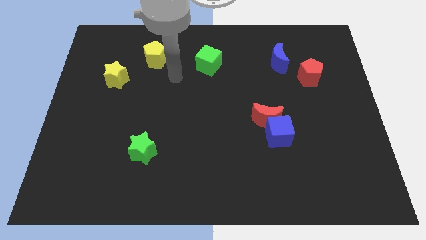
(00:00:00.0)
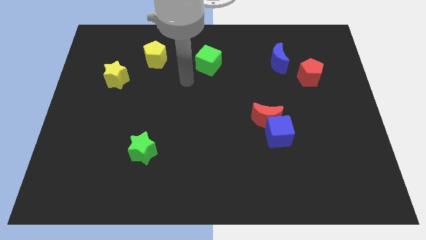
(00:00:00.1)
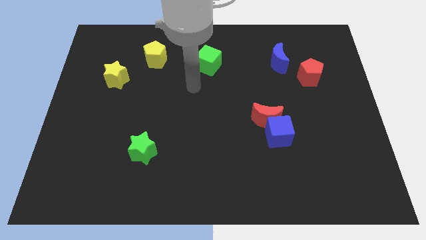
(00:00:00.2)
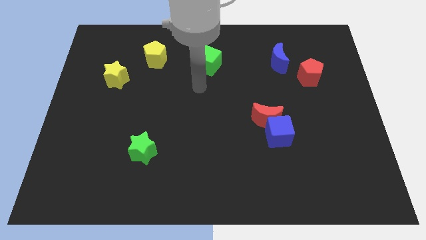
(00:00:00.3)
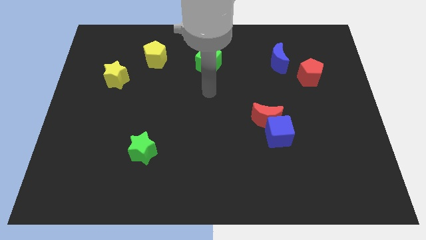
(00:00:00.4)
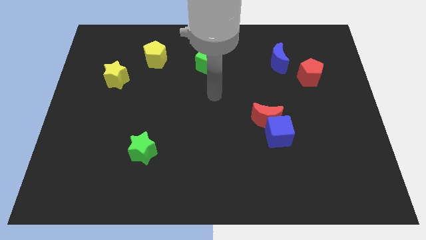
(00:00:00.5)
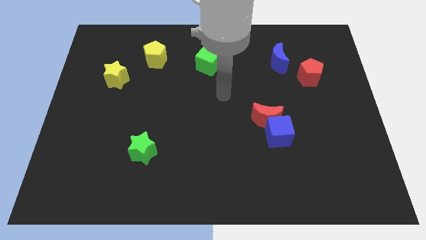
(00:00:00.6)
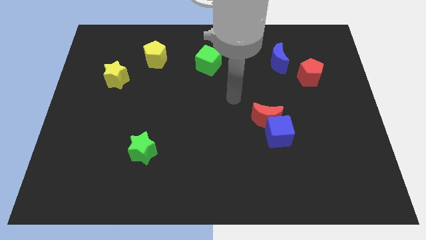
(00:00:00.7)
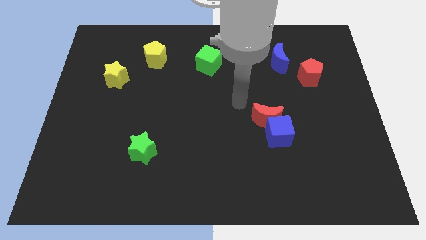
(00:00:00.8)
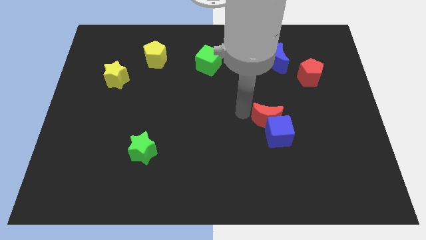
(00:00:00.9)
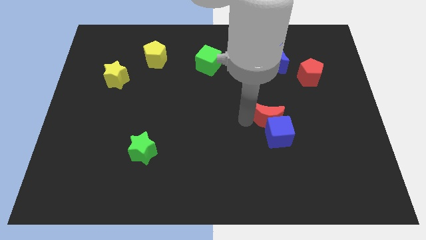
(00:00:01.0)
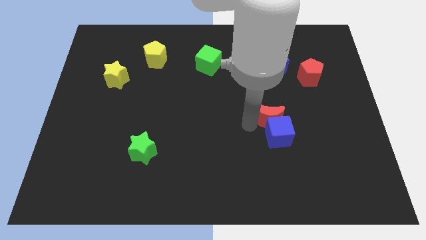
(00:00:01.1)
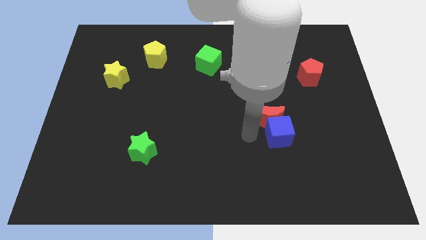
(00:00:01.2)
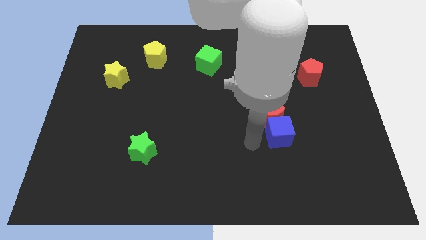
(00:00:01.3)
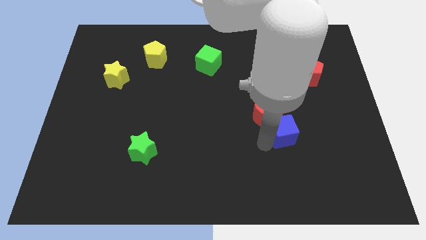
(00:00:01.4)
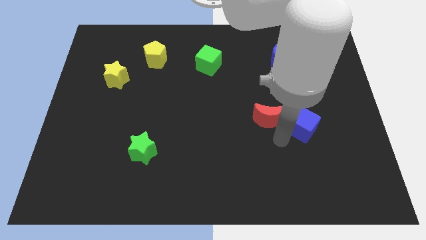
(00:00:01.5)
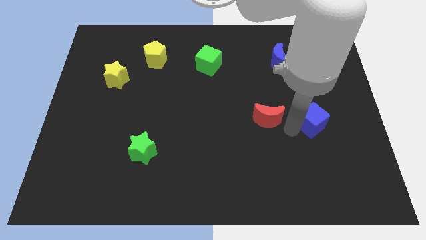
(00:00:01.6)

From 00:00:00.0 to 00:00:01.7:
pull the red moon apart from the blue cube

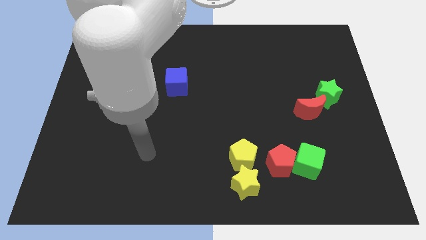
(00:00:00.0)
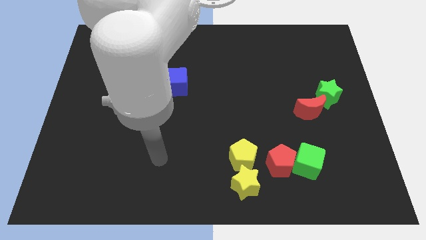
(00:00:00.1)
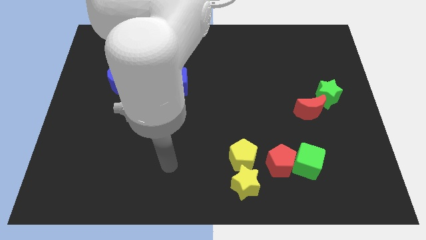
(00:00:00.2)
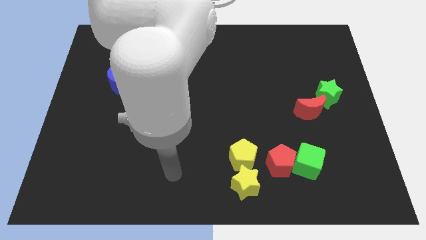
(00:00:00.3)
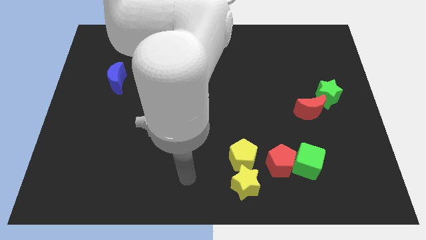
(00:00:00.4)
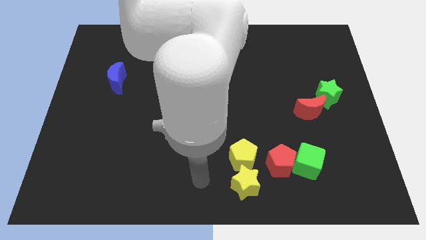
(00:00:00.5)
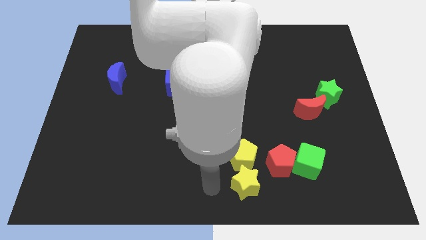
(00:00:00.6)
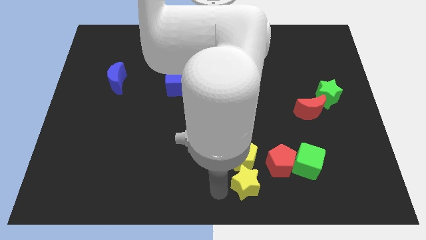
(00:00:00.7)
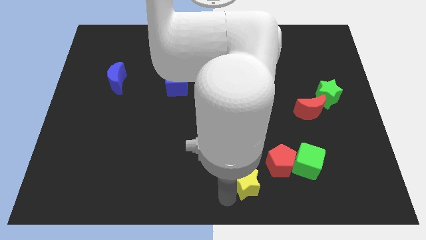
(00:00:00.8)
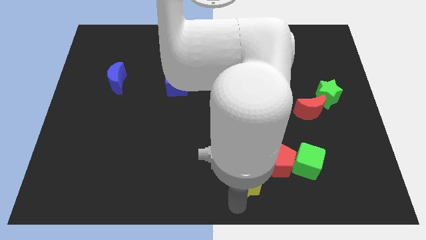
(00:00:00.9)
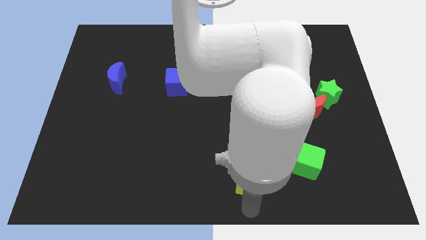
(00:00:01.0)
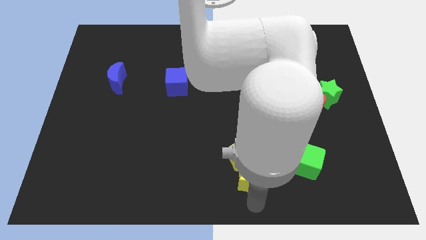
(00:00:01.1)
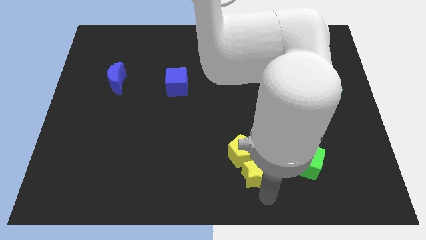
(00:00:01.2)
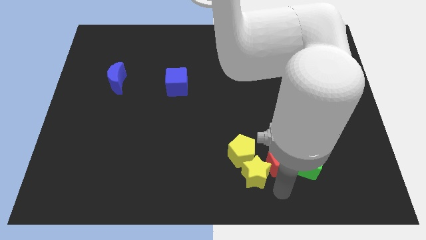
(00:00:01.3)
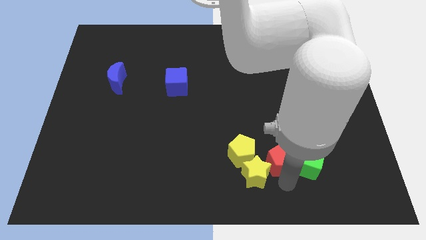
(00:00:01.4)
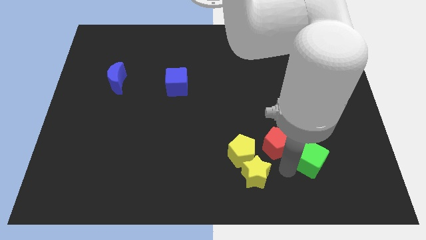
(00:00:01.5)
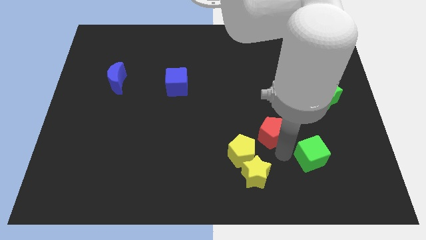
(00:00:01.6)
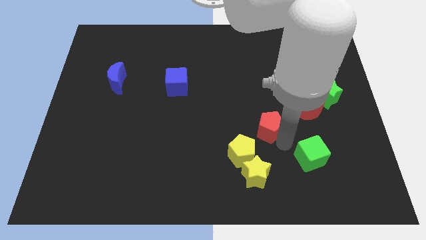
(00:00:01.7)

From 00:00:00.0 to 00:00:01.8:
move the green cube away from the red pentagon

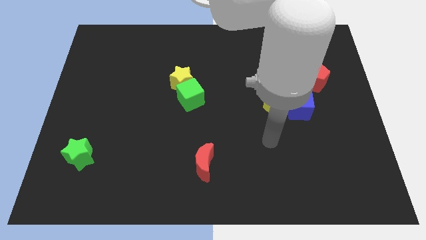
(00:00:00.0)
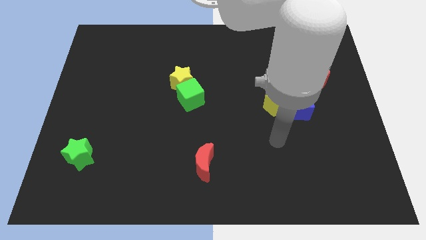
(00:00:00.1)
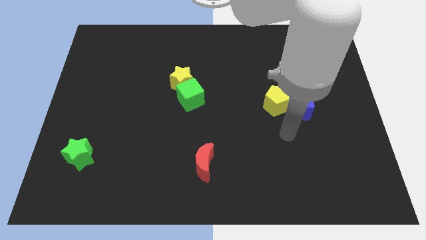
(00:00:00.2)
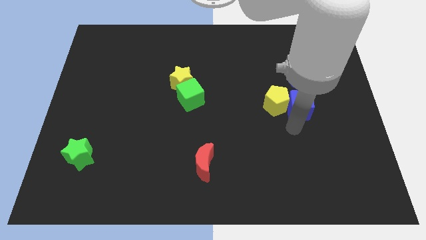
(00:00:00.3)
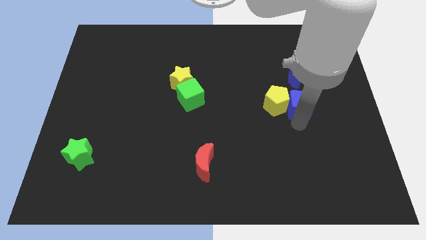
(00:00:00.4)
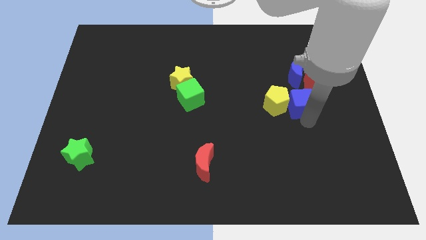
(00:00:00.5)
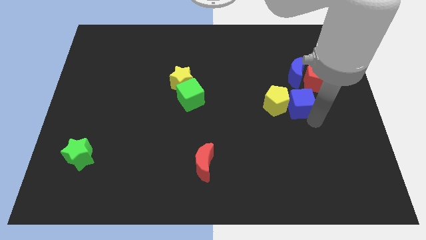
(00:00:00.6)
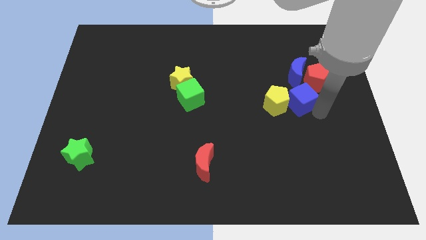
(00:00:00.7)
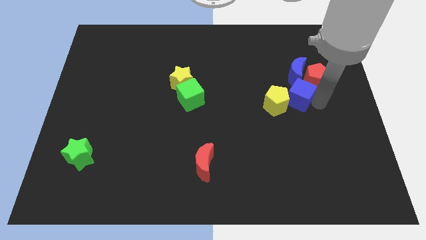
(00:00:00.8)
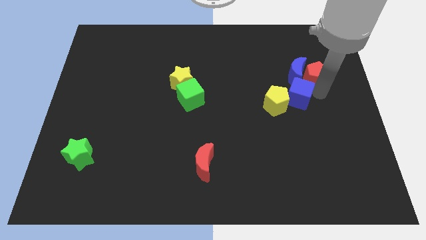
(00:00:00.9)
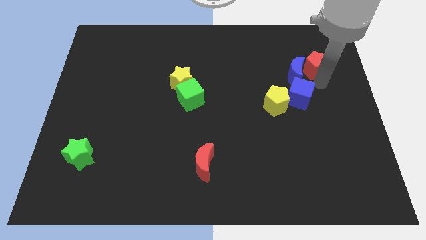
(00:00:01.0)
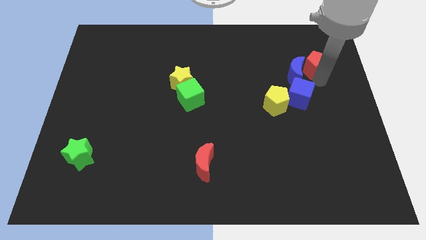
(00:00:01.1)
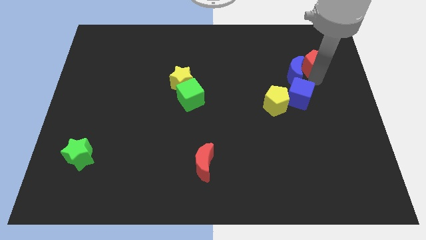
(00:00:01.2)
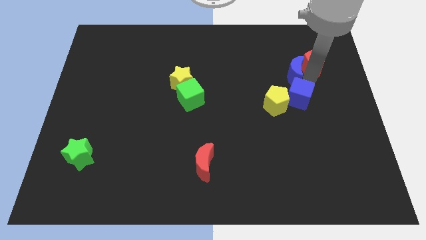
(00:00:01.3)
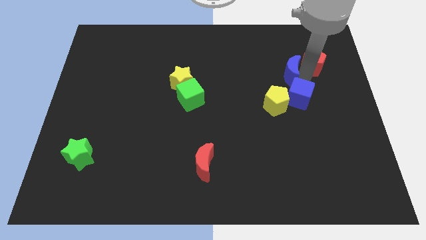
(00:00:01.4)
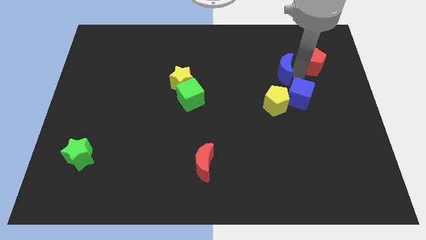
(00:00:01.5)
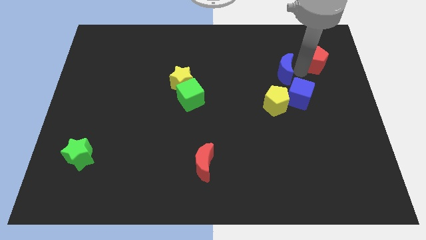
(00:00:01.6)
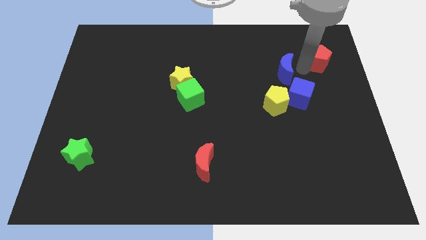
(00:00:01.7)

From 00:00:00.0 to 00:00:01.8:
pull the blue moon apart from the red pentagon

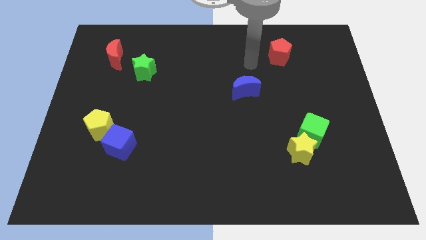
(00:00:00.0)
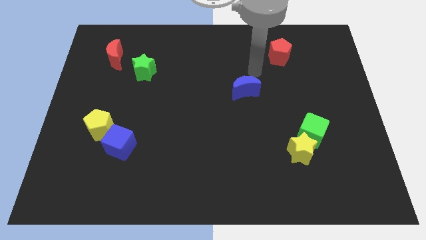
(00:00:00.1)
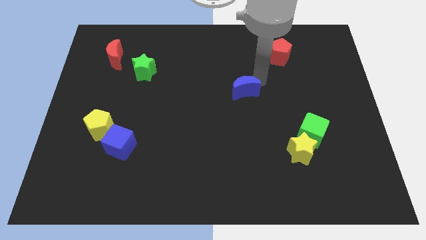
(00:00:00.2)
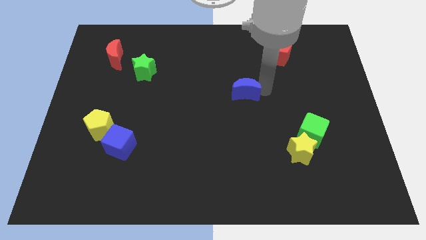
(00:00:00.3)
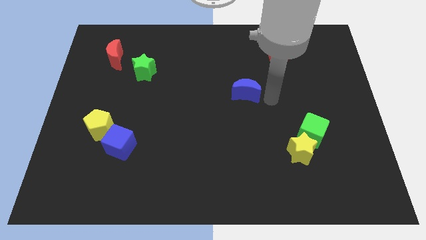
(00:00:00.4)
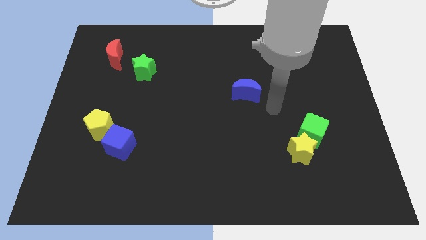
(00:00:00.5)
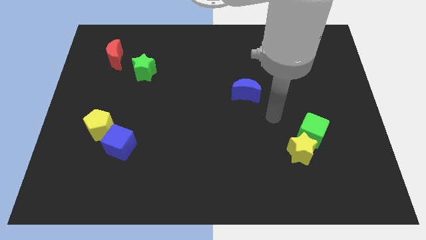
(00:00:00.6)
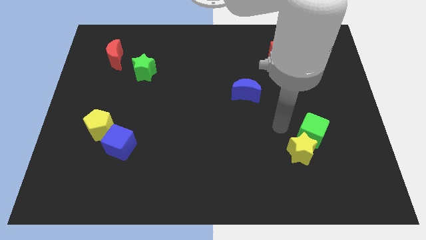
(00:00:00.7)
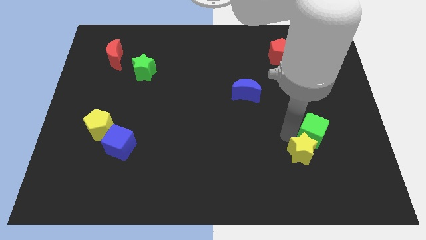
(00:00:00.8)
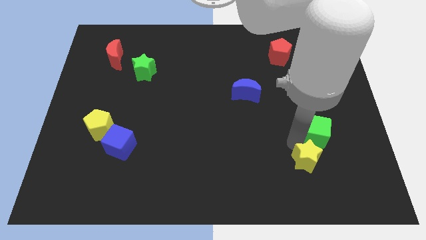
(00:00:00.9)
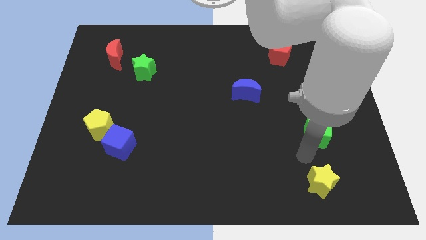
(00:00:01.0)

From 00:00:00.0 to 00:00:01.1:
move the green cube away from the yellow star

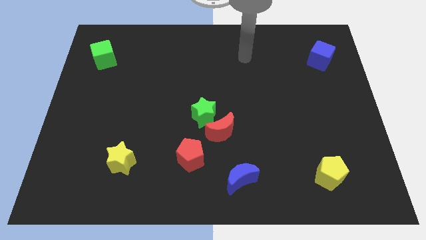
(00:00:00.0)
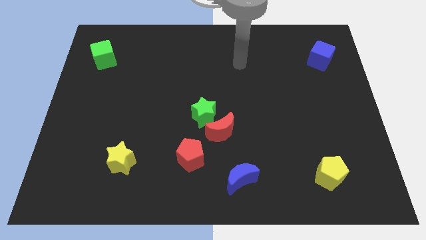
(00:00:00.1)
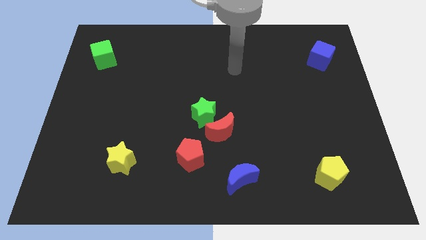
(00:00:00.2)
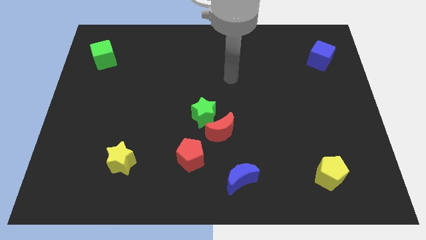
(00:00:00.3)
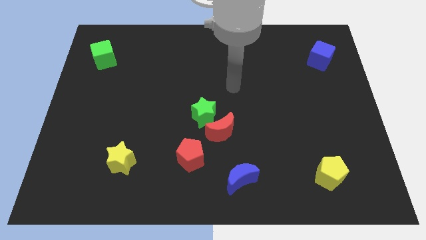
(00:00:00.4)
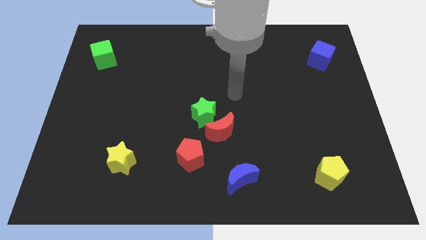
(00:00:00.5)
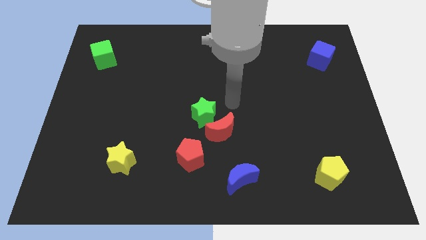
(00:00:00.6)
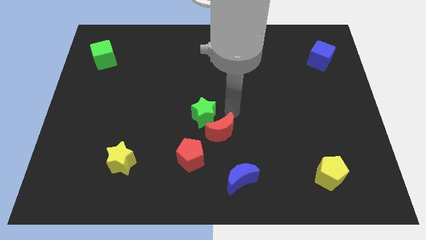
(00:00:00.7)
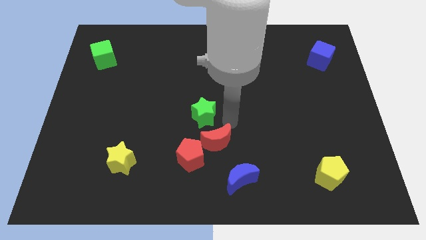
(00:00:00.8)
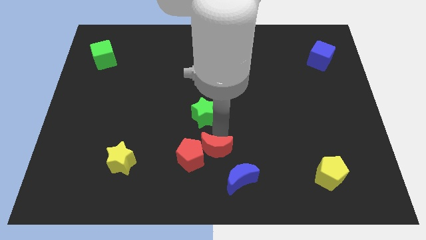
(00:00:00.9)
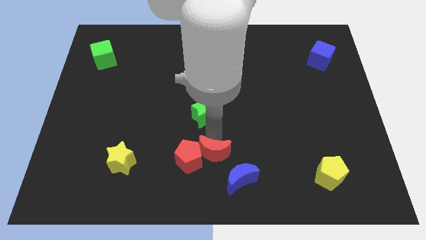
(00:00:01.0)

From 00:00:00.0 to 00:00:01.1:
move the green star away from the red moon

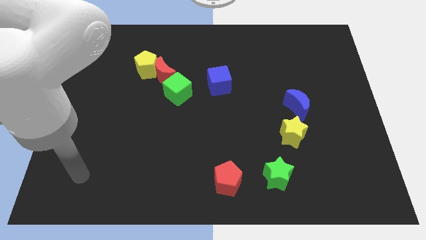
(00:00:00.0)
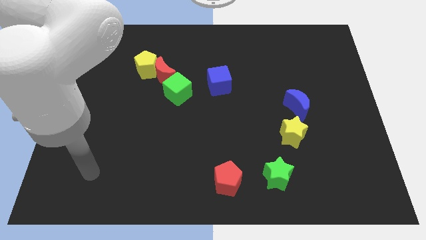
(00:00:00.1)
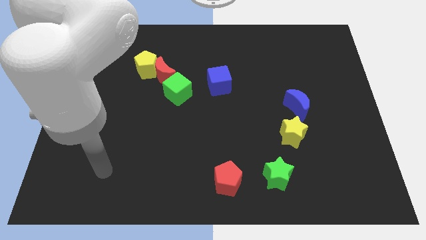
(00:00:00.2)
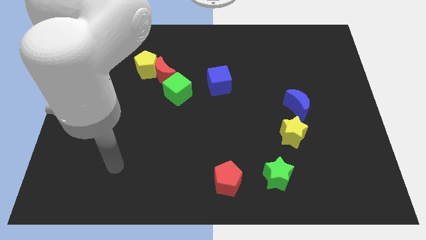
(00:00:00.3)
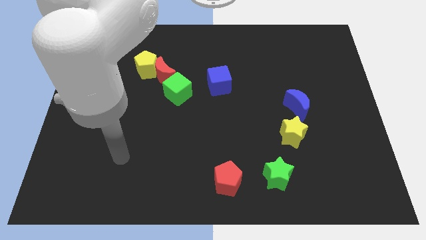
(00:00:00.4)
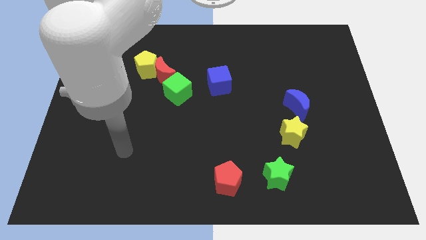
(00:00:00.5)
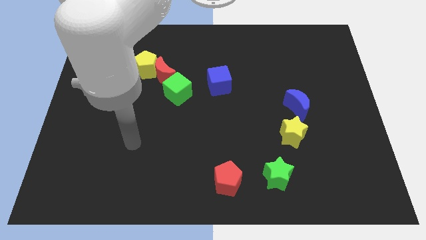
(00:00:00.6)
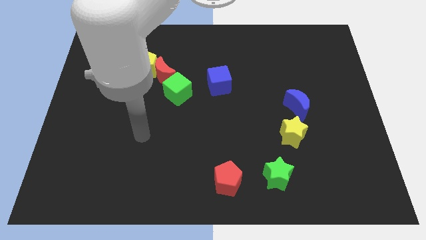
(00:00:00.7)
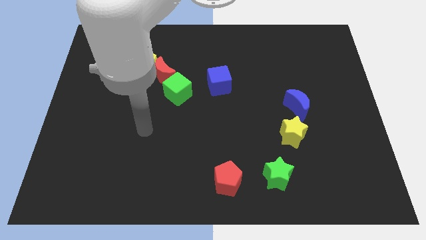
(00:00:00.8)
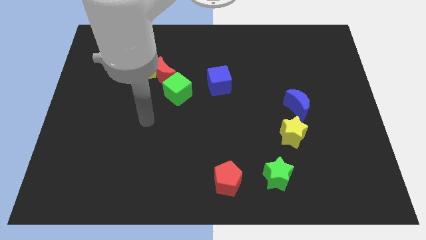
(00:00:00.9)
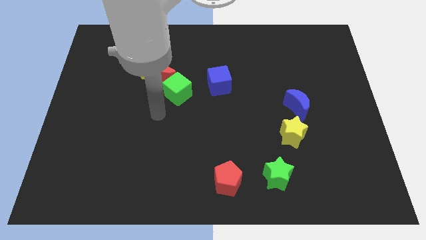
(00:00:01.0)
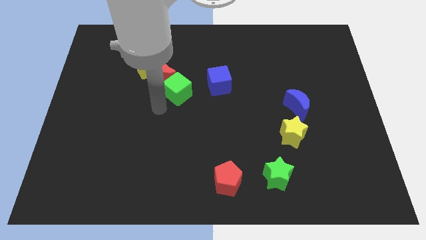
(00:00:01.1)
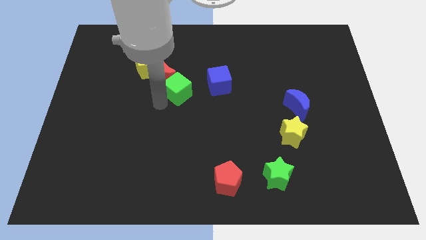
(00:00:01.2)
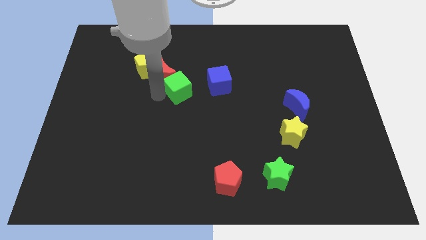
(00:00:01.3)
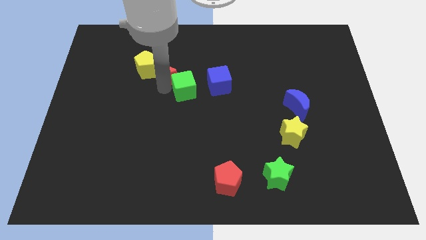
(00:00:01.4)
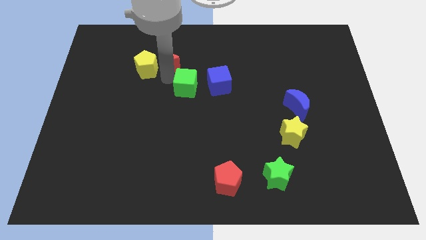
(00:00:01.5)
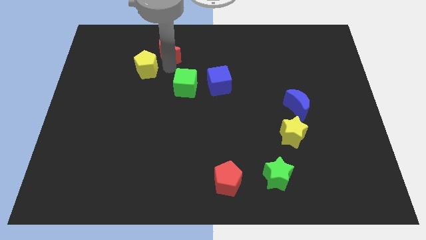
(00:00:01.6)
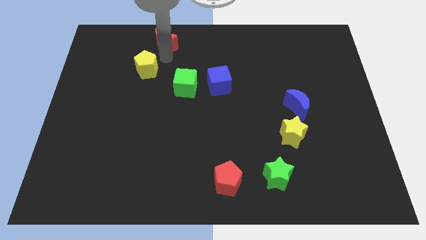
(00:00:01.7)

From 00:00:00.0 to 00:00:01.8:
pull the yellow pentagon apart from the red moon
